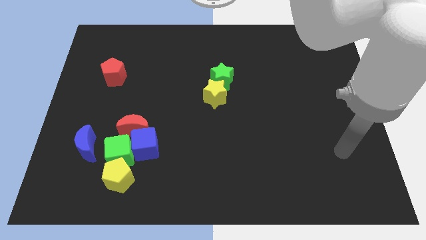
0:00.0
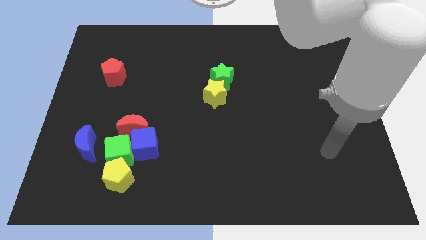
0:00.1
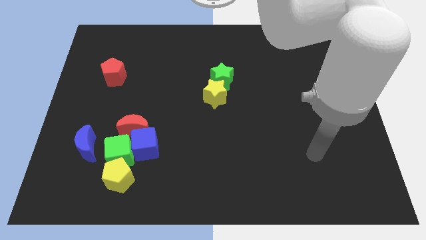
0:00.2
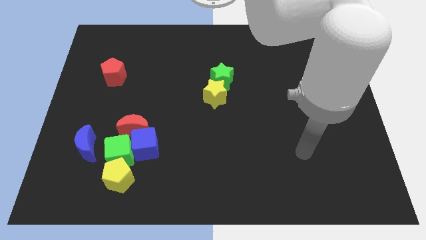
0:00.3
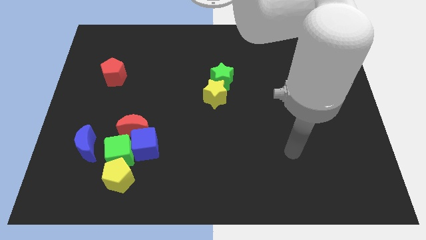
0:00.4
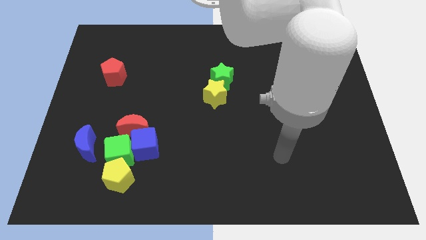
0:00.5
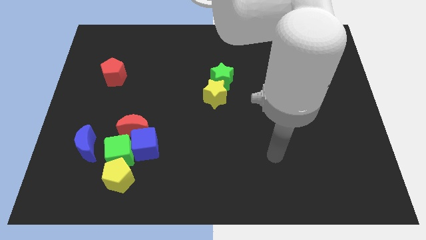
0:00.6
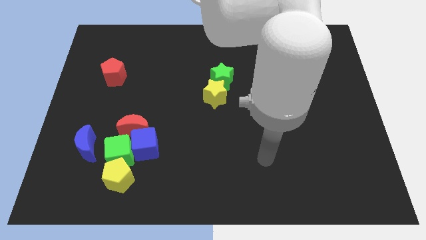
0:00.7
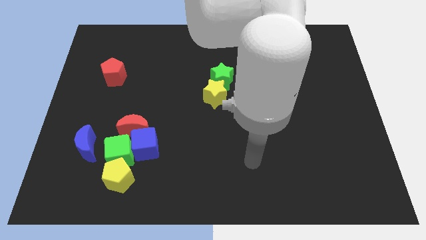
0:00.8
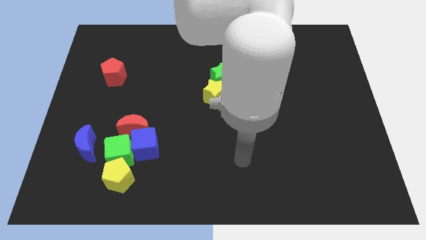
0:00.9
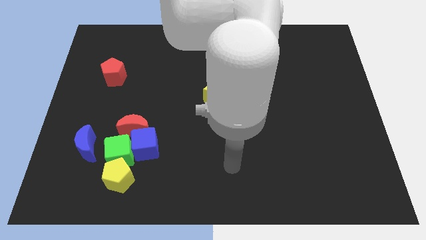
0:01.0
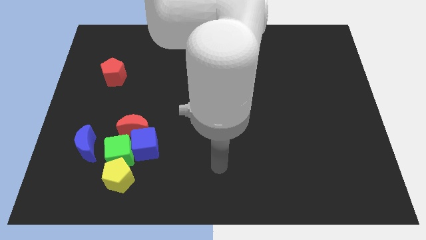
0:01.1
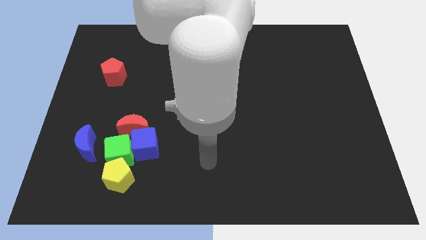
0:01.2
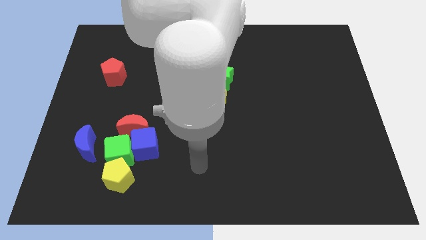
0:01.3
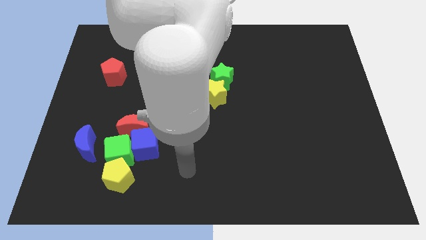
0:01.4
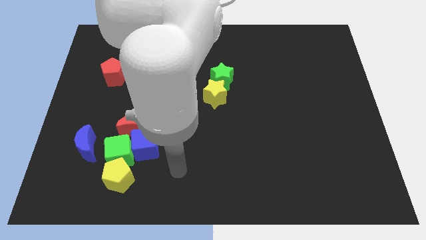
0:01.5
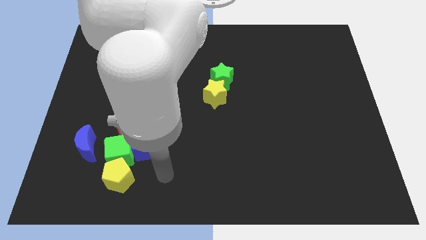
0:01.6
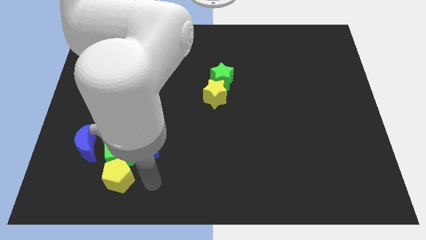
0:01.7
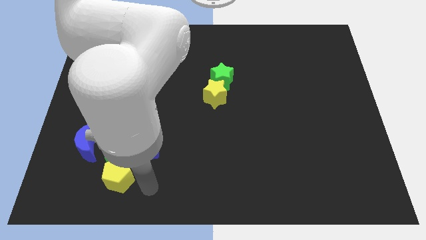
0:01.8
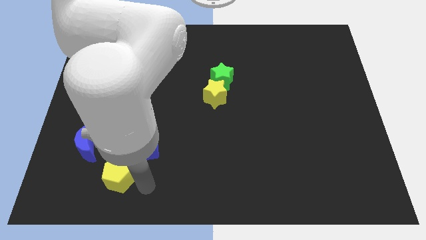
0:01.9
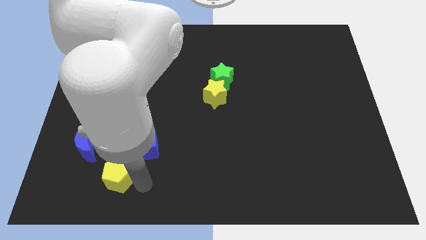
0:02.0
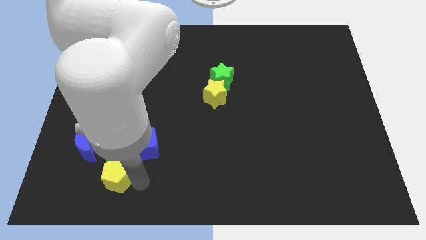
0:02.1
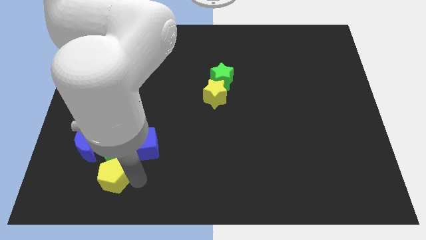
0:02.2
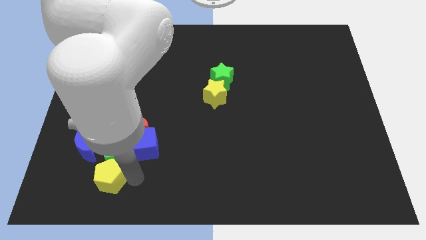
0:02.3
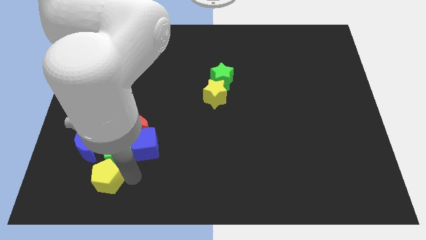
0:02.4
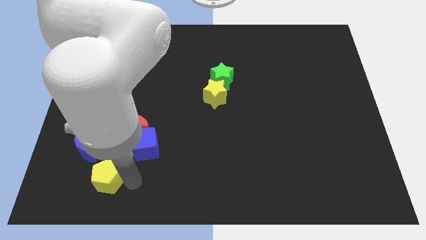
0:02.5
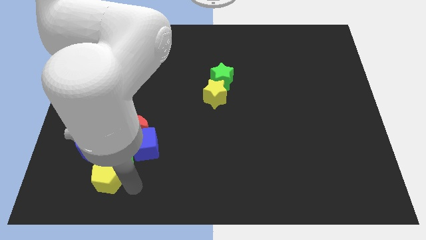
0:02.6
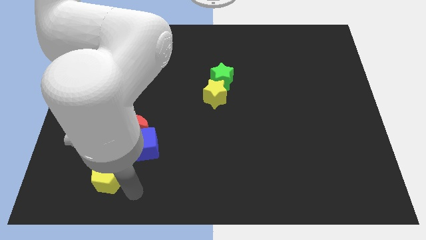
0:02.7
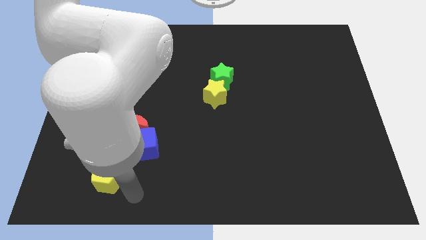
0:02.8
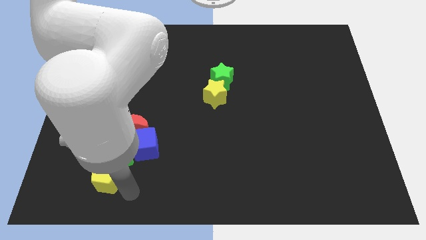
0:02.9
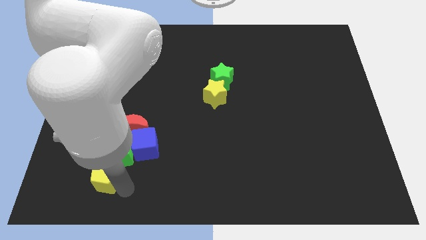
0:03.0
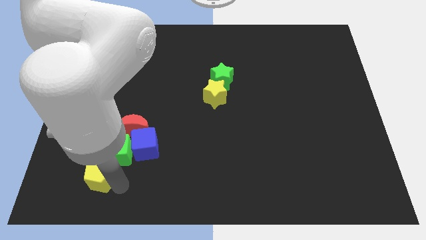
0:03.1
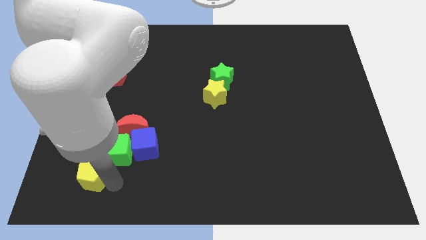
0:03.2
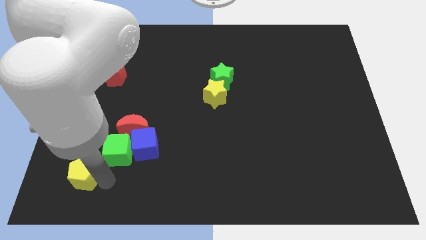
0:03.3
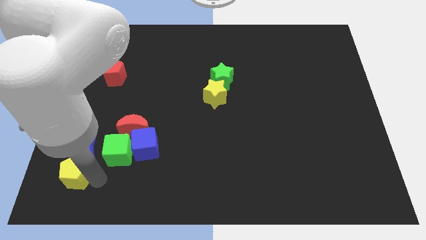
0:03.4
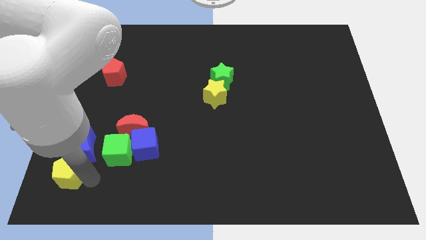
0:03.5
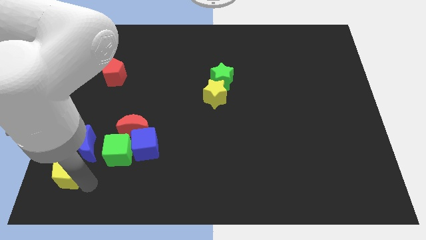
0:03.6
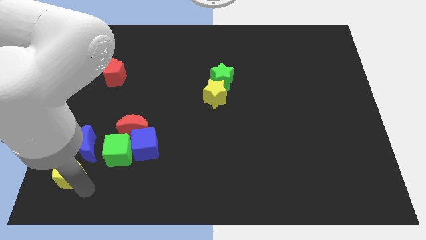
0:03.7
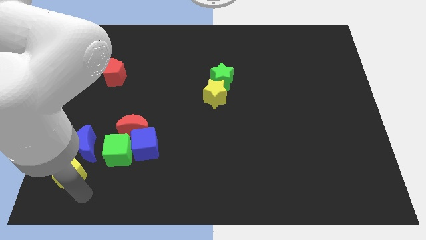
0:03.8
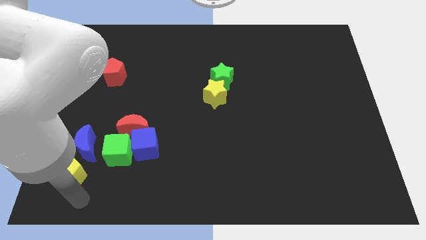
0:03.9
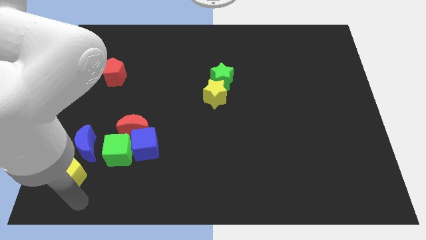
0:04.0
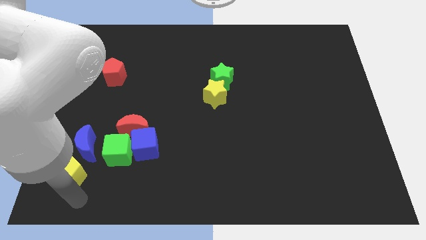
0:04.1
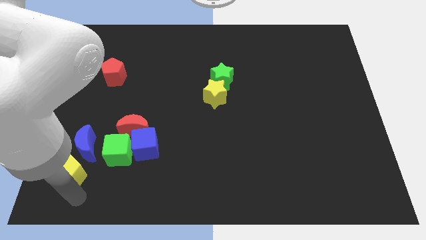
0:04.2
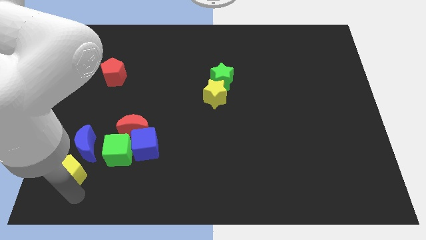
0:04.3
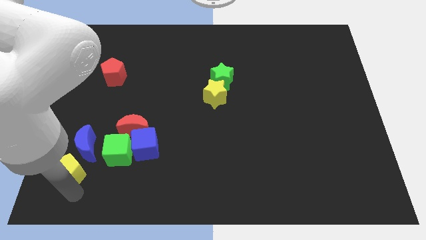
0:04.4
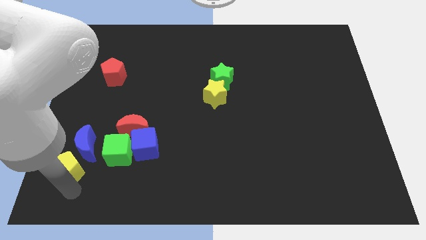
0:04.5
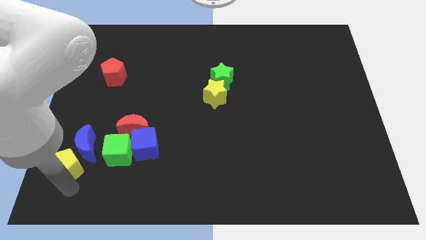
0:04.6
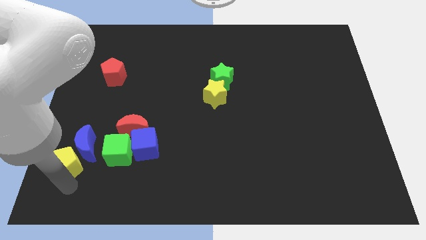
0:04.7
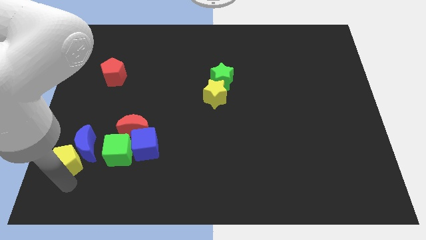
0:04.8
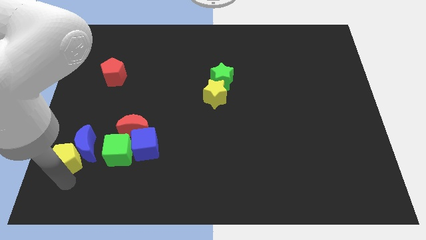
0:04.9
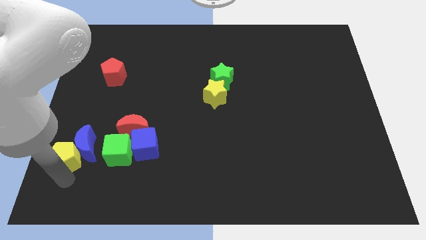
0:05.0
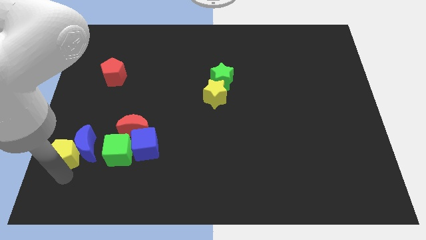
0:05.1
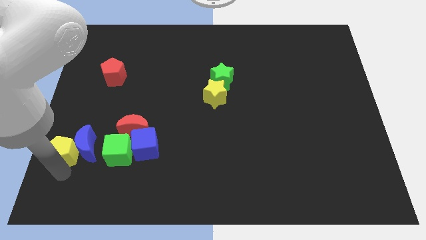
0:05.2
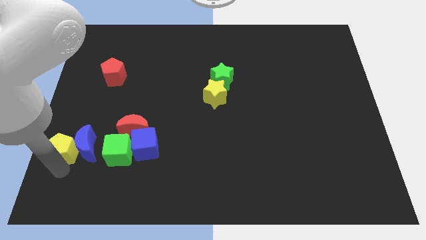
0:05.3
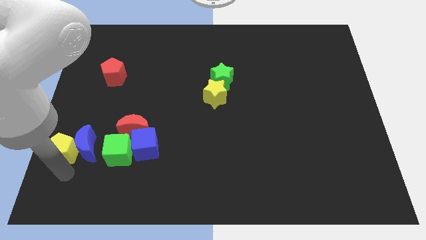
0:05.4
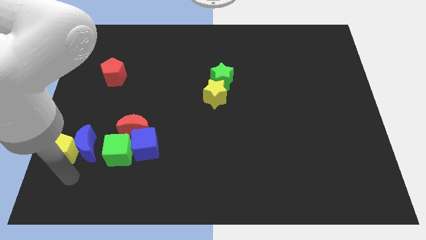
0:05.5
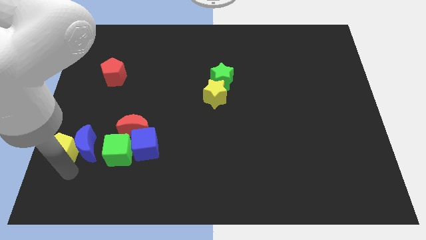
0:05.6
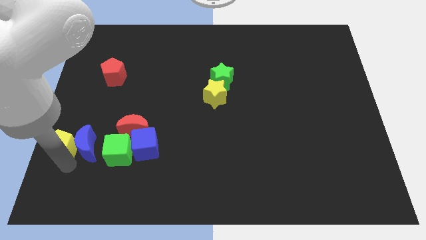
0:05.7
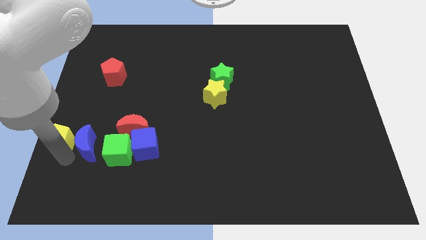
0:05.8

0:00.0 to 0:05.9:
slide the yellow pentagon to the center left
